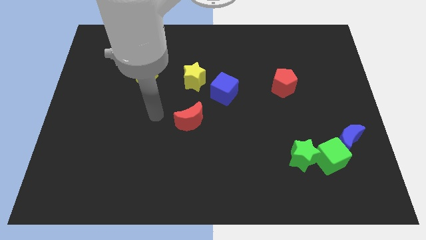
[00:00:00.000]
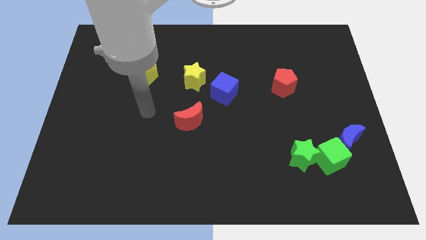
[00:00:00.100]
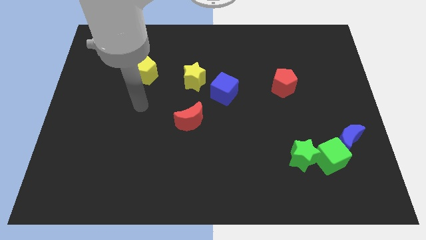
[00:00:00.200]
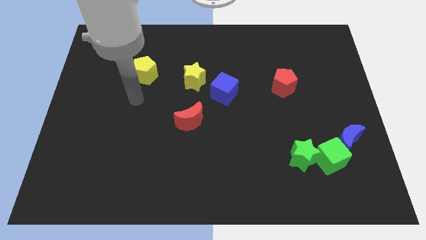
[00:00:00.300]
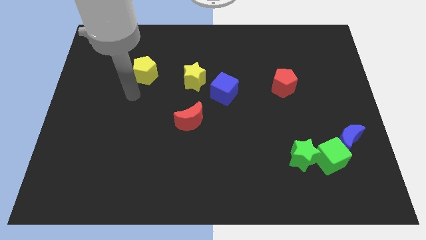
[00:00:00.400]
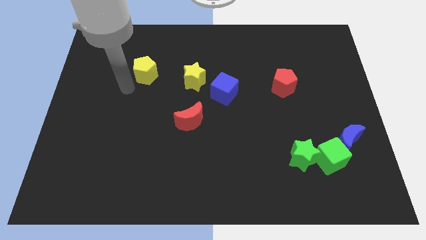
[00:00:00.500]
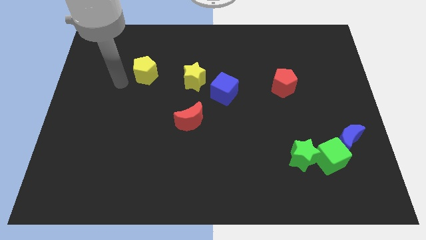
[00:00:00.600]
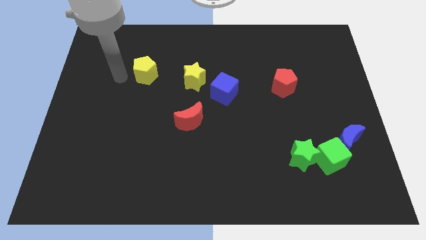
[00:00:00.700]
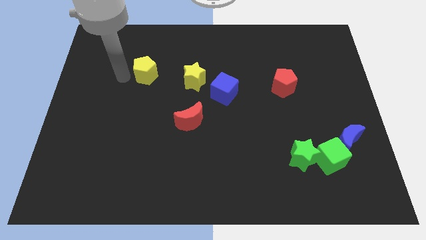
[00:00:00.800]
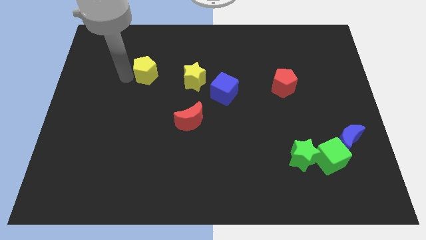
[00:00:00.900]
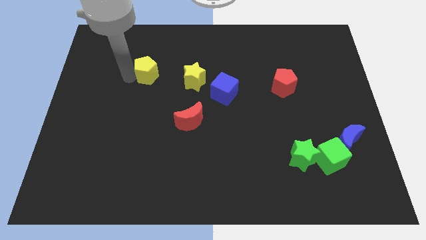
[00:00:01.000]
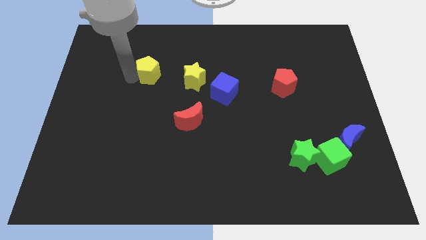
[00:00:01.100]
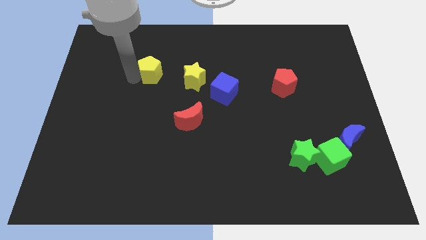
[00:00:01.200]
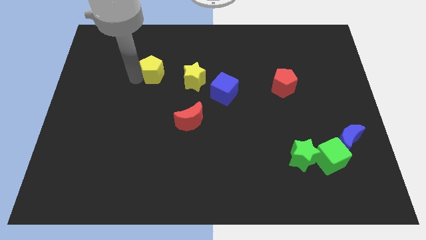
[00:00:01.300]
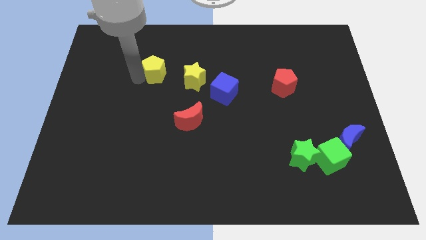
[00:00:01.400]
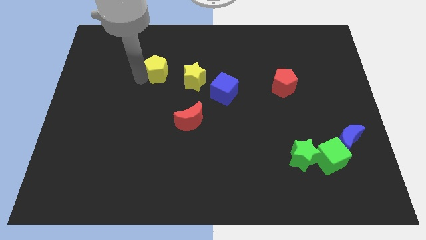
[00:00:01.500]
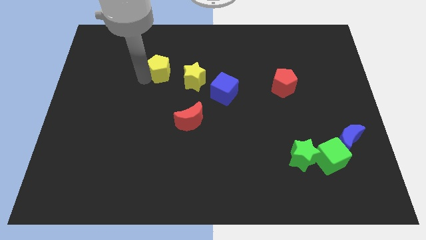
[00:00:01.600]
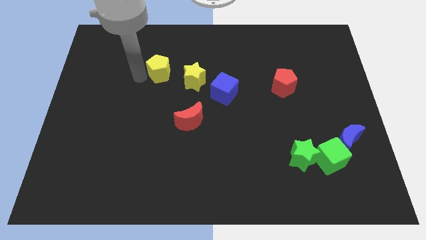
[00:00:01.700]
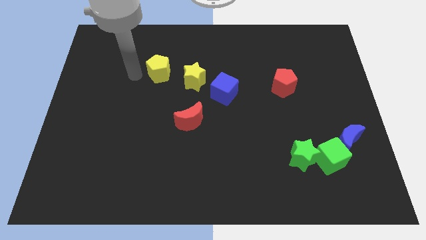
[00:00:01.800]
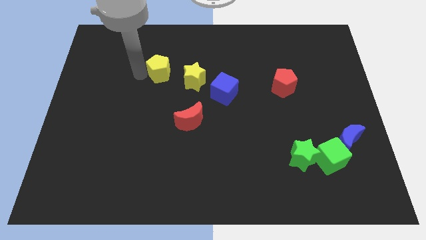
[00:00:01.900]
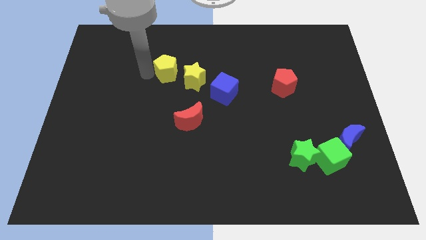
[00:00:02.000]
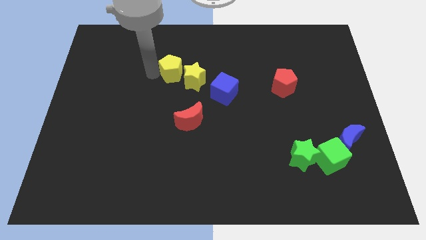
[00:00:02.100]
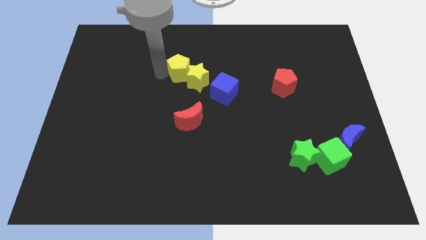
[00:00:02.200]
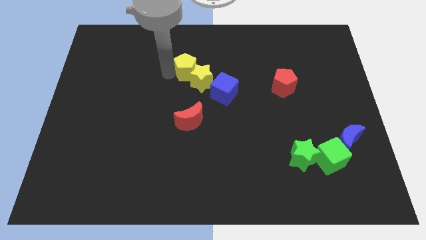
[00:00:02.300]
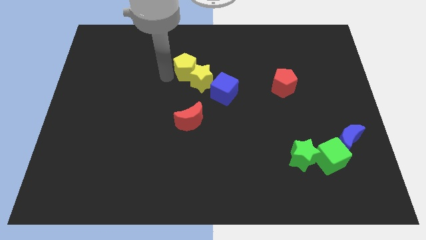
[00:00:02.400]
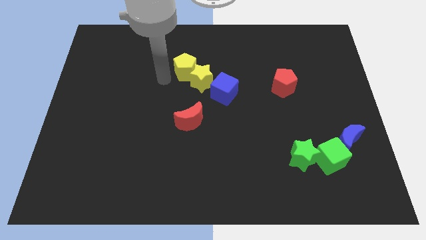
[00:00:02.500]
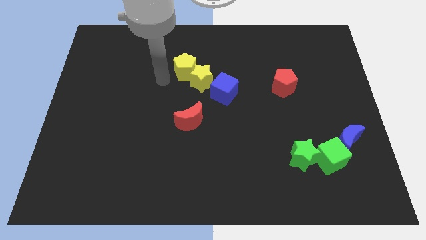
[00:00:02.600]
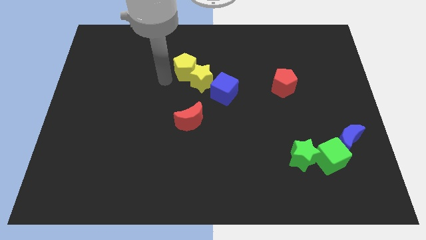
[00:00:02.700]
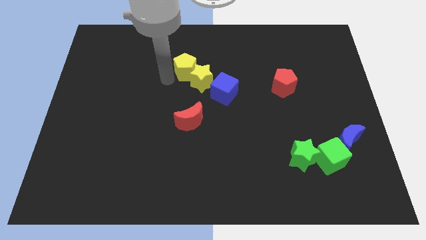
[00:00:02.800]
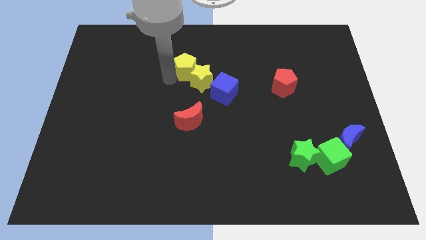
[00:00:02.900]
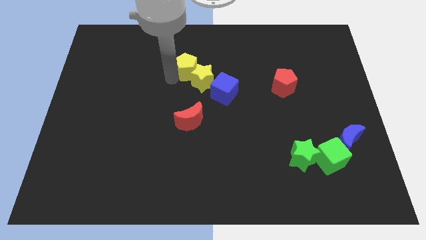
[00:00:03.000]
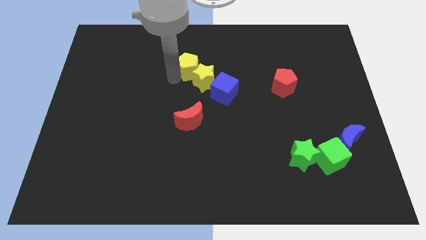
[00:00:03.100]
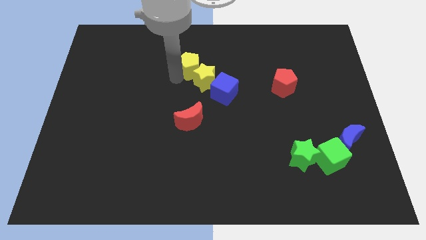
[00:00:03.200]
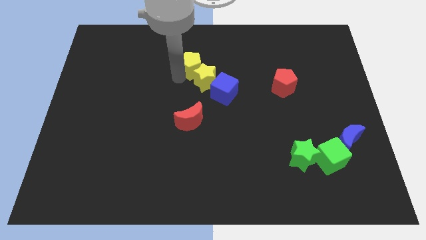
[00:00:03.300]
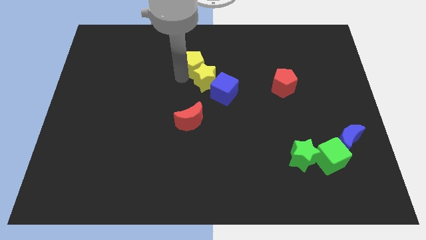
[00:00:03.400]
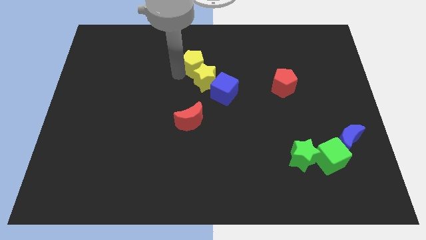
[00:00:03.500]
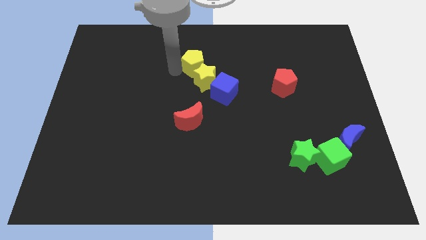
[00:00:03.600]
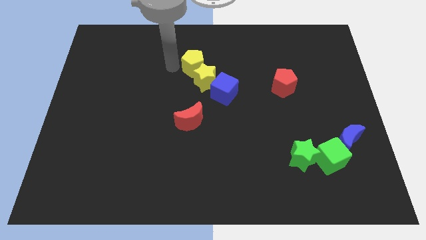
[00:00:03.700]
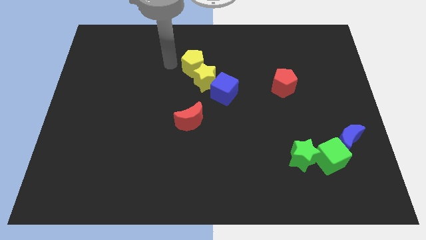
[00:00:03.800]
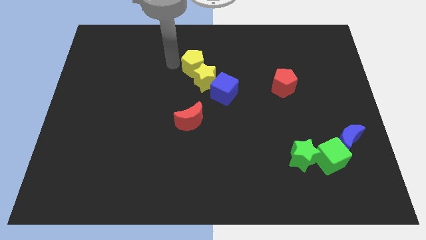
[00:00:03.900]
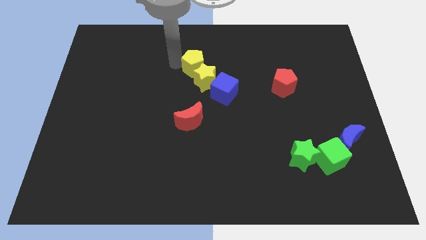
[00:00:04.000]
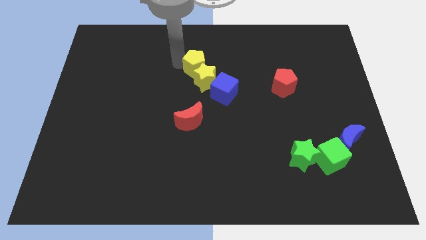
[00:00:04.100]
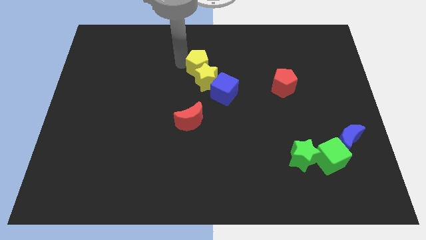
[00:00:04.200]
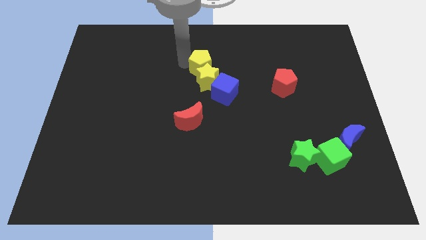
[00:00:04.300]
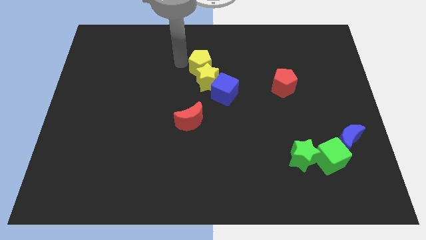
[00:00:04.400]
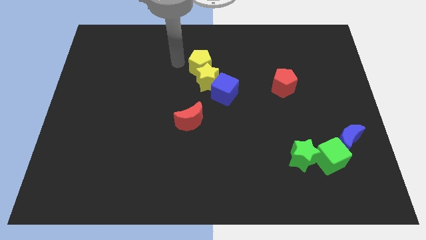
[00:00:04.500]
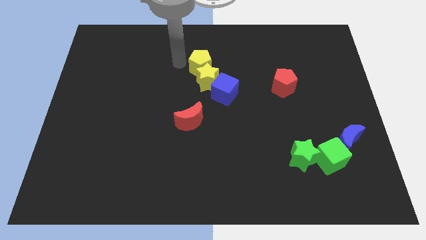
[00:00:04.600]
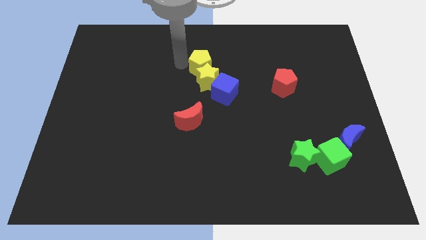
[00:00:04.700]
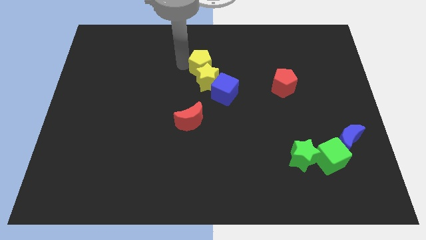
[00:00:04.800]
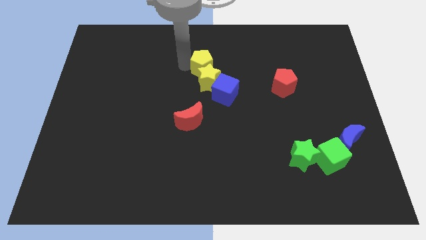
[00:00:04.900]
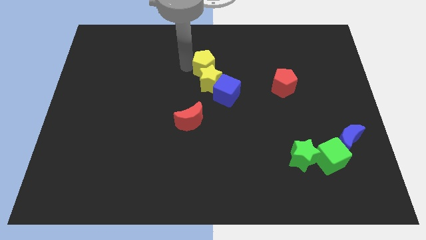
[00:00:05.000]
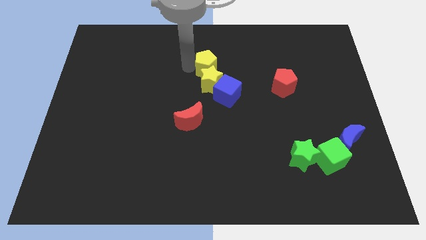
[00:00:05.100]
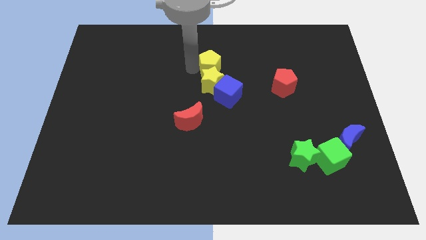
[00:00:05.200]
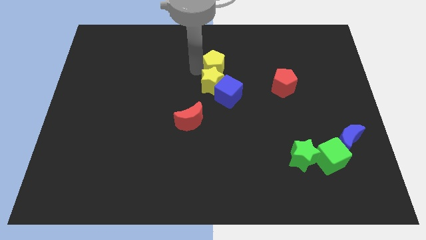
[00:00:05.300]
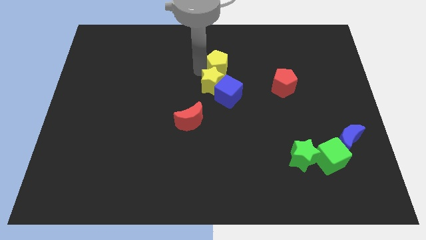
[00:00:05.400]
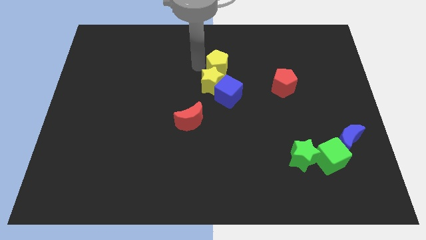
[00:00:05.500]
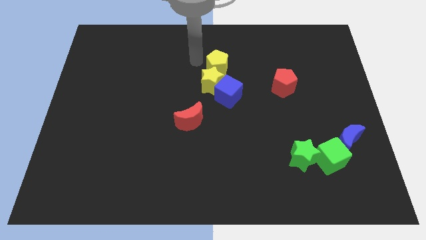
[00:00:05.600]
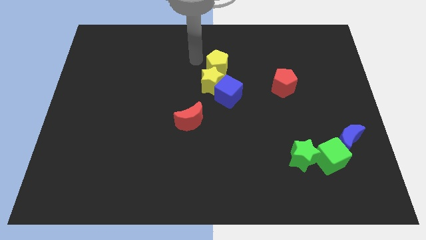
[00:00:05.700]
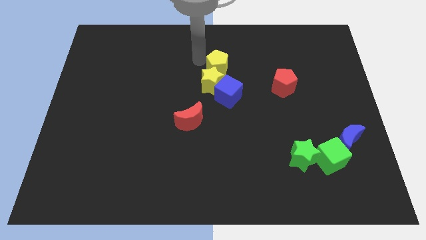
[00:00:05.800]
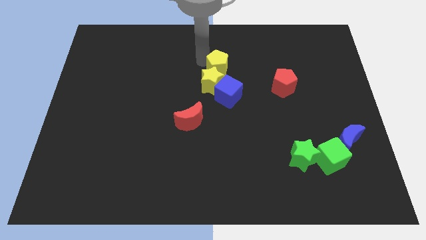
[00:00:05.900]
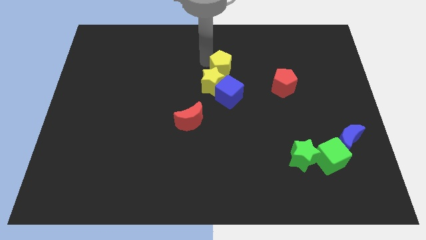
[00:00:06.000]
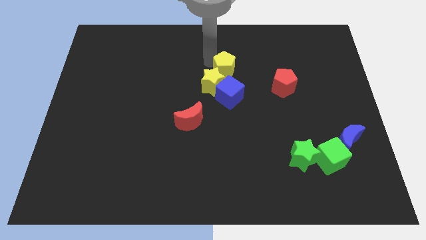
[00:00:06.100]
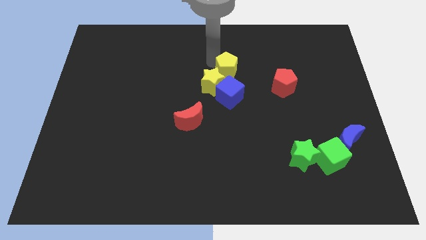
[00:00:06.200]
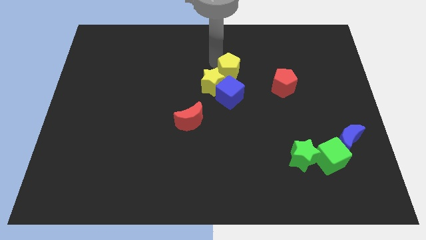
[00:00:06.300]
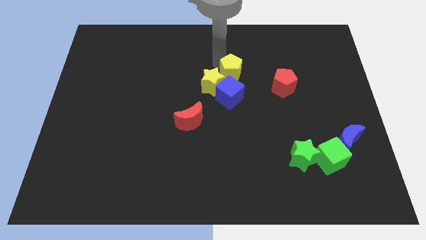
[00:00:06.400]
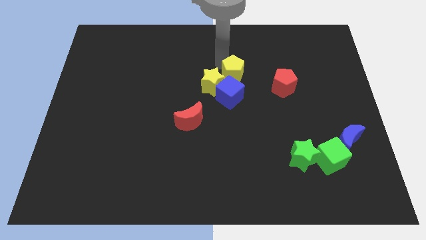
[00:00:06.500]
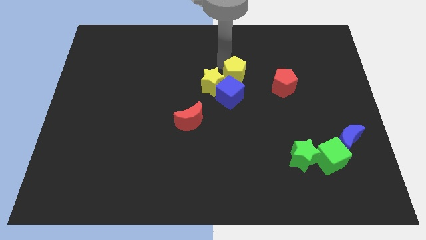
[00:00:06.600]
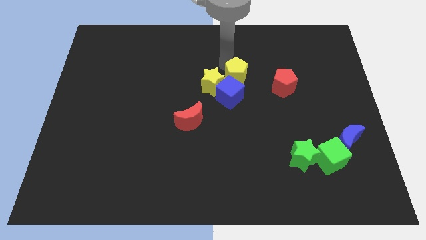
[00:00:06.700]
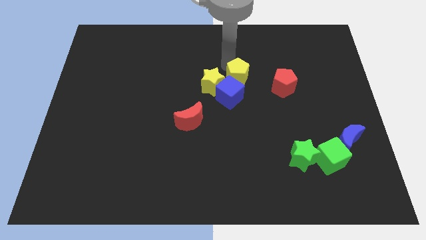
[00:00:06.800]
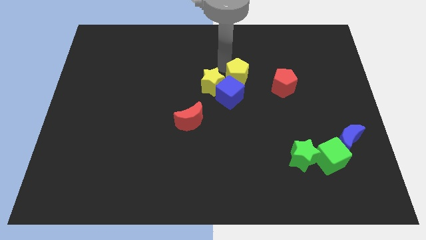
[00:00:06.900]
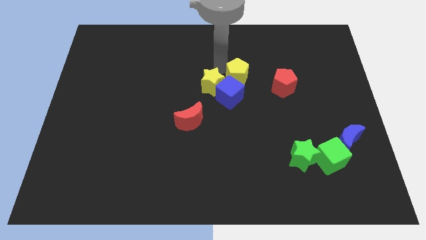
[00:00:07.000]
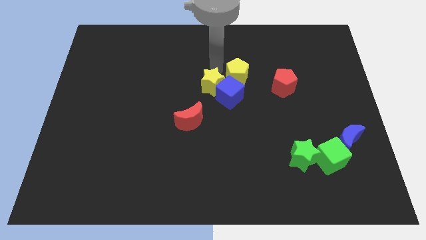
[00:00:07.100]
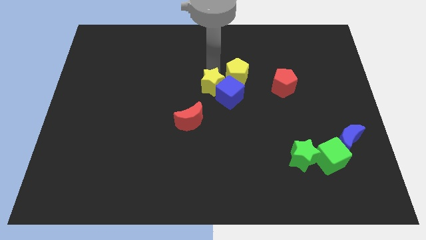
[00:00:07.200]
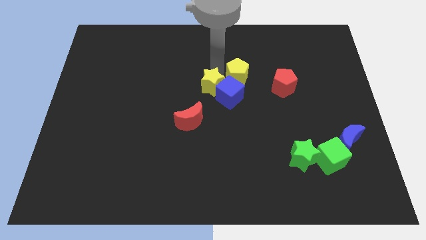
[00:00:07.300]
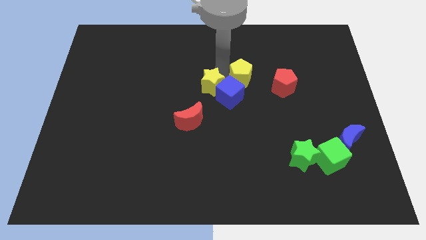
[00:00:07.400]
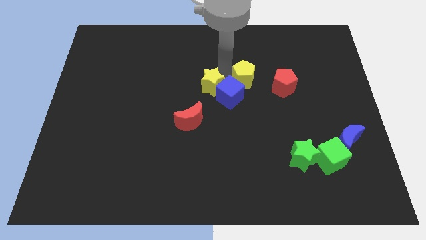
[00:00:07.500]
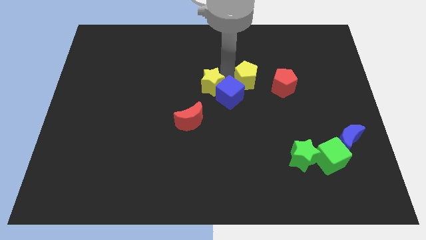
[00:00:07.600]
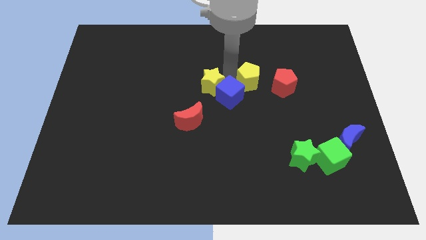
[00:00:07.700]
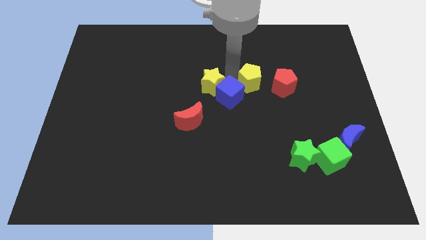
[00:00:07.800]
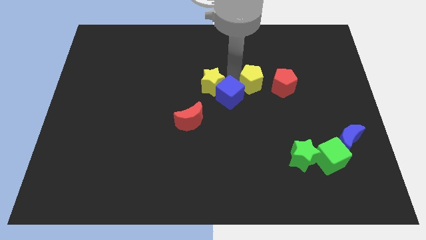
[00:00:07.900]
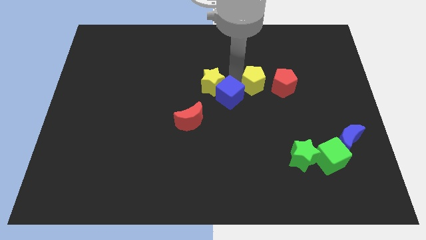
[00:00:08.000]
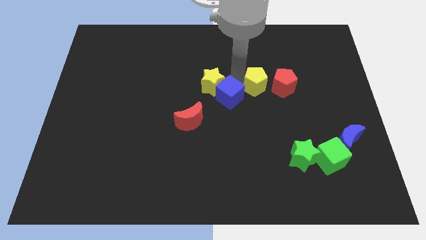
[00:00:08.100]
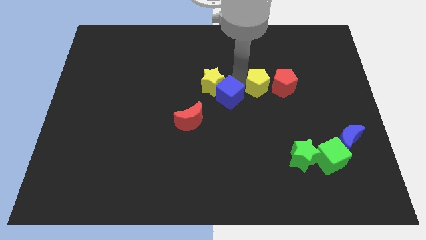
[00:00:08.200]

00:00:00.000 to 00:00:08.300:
push the yellow pentagon to the red pentagon
